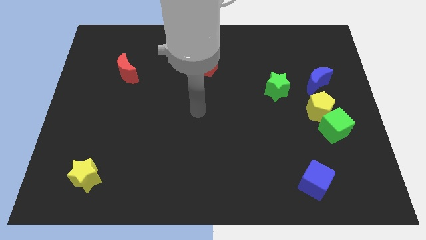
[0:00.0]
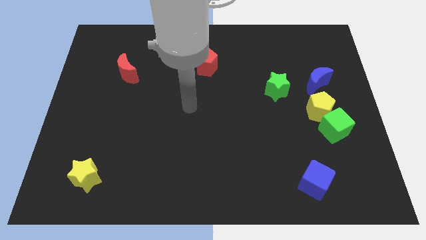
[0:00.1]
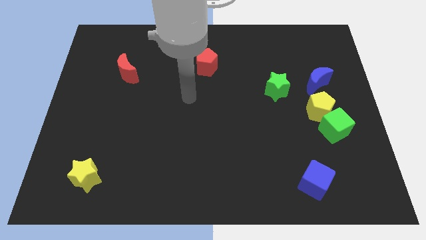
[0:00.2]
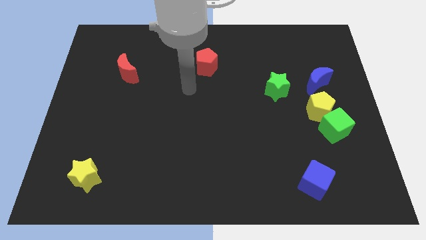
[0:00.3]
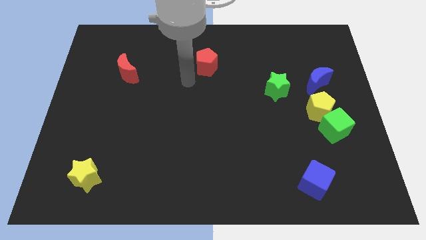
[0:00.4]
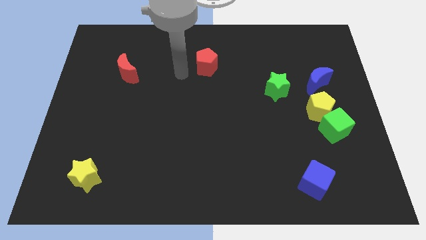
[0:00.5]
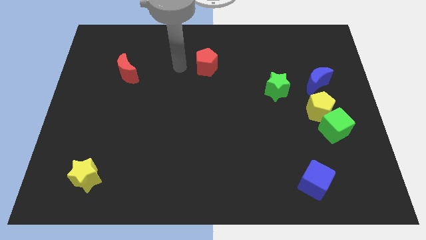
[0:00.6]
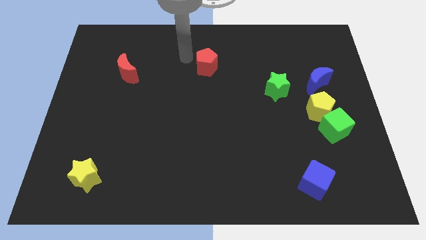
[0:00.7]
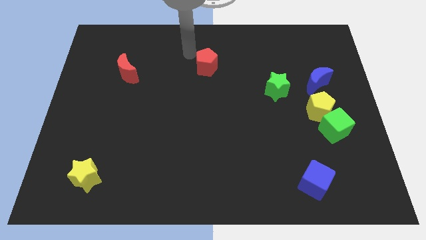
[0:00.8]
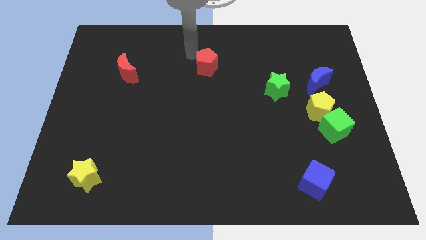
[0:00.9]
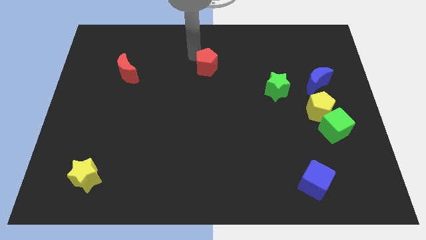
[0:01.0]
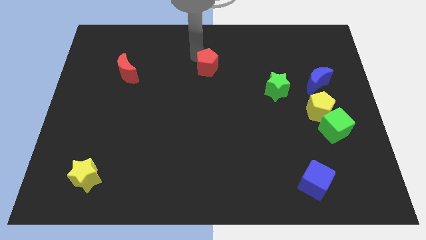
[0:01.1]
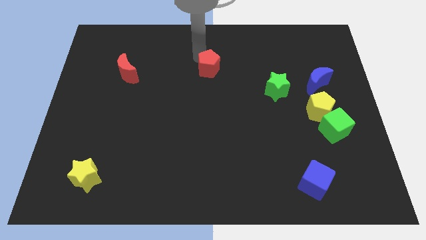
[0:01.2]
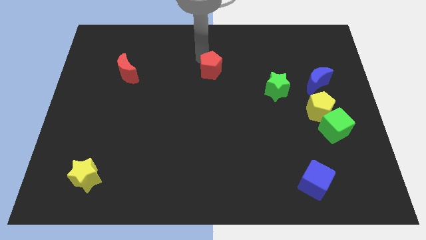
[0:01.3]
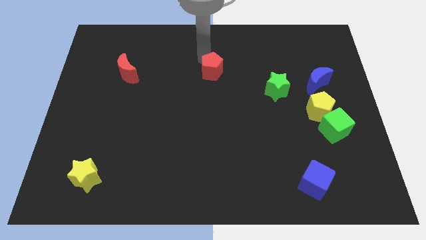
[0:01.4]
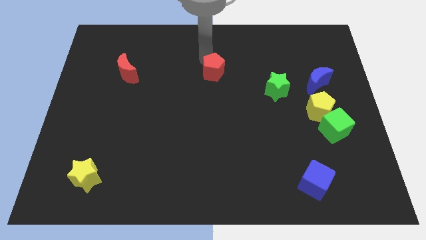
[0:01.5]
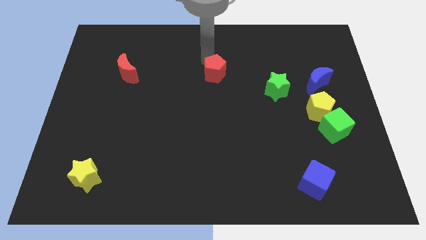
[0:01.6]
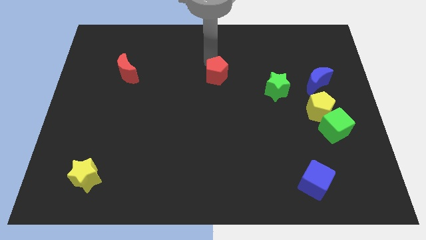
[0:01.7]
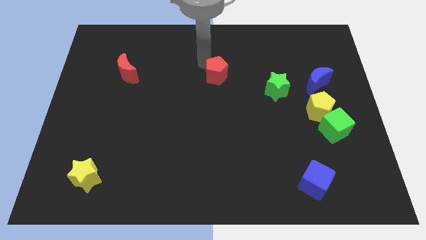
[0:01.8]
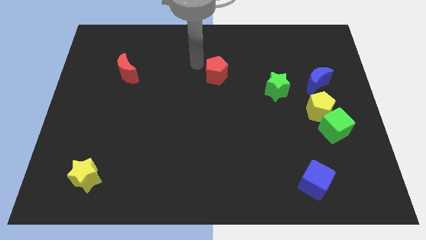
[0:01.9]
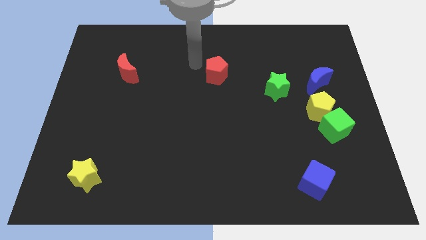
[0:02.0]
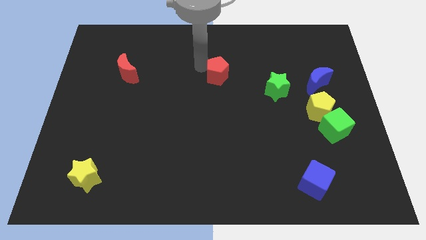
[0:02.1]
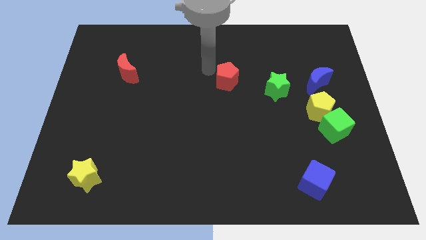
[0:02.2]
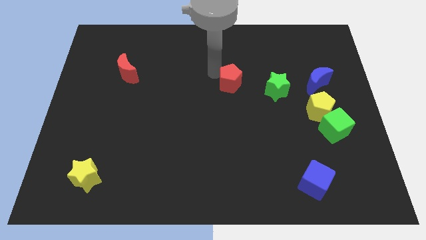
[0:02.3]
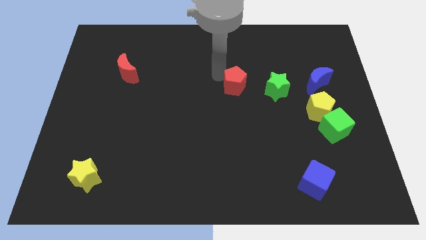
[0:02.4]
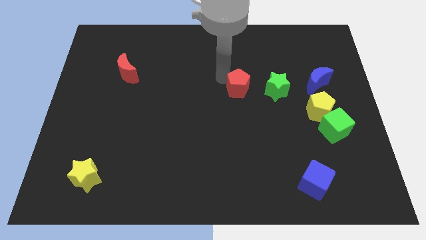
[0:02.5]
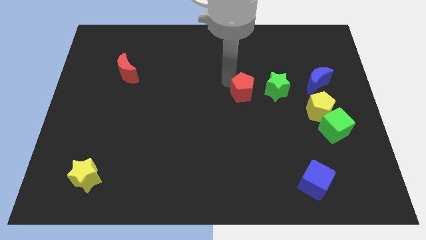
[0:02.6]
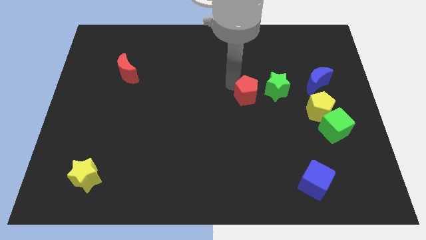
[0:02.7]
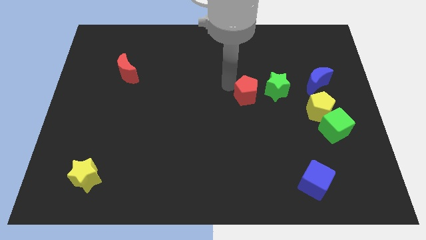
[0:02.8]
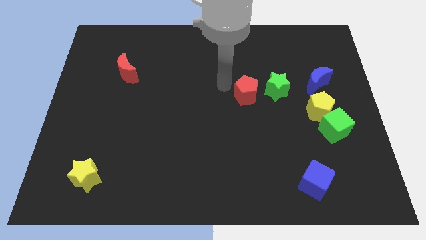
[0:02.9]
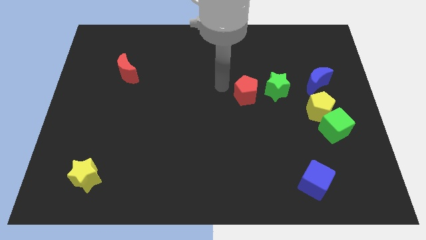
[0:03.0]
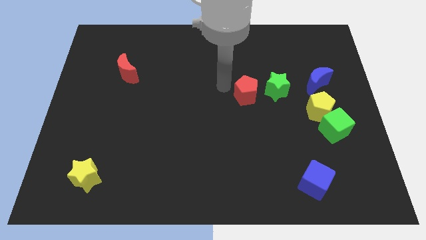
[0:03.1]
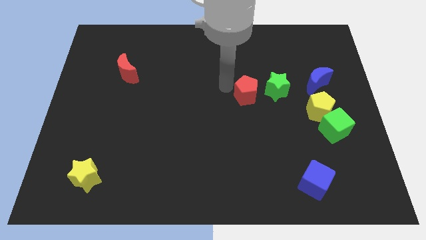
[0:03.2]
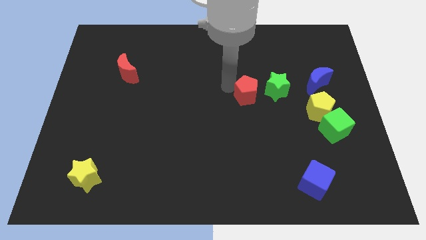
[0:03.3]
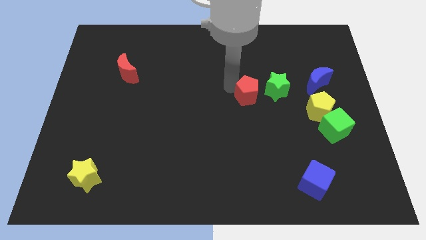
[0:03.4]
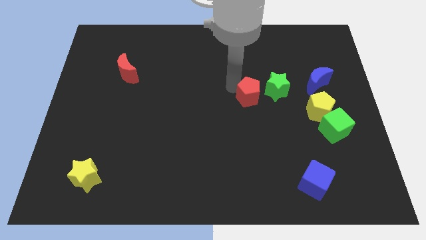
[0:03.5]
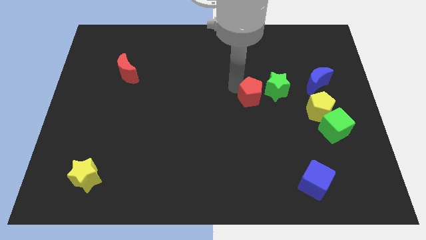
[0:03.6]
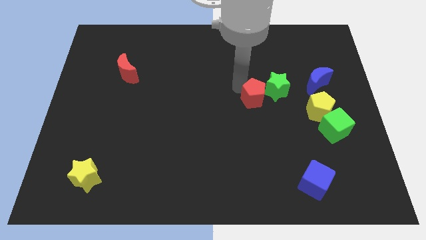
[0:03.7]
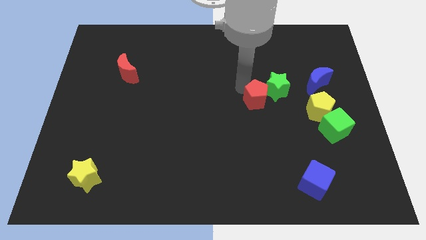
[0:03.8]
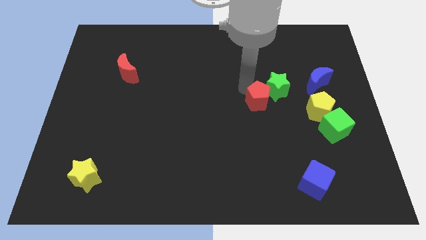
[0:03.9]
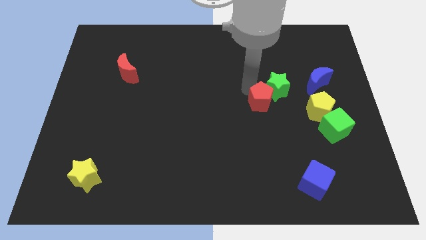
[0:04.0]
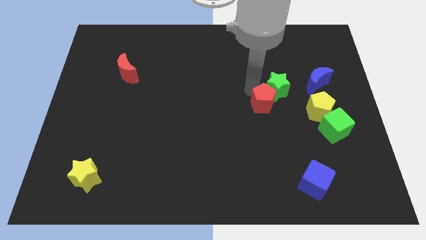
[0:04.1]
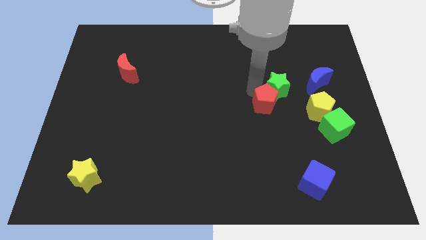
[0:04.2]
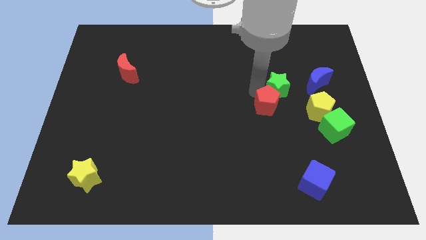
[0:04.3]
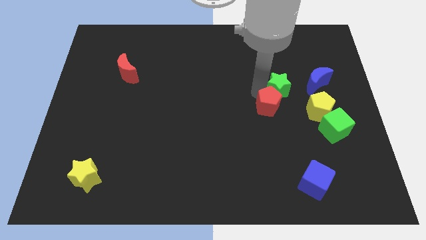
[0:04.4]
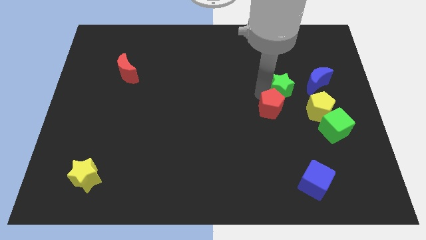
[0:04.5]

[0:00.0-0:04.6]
move the red pentagon down and then to the right

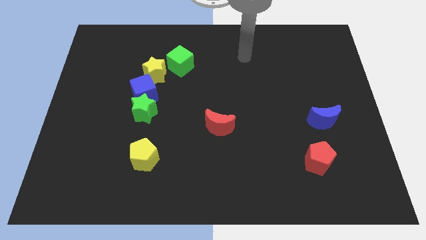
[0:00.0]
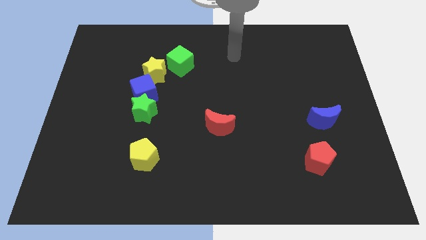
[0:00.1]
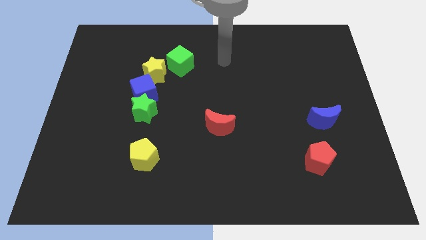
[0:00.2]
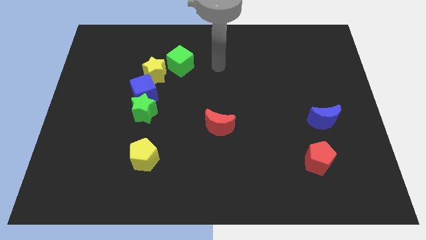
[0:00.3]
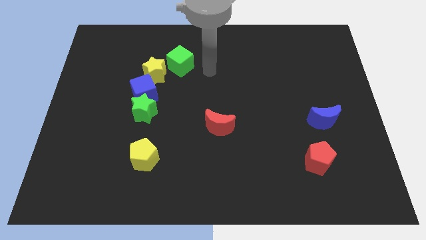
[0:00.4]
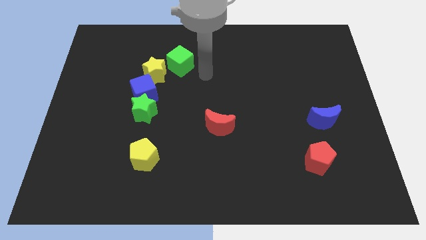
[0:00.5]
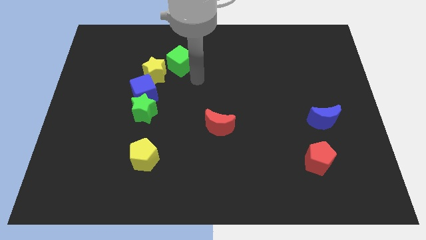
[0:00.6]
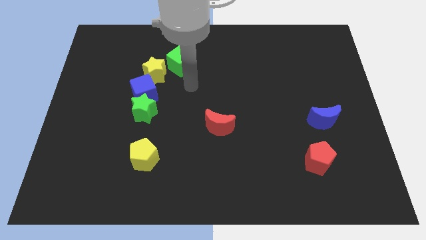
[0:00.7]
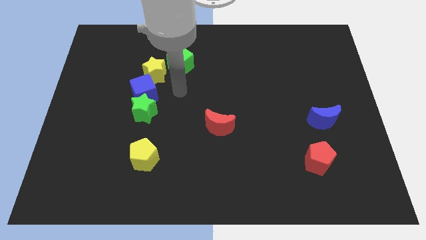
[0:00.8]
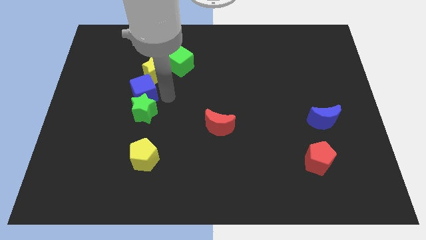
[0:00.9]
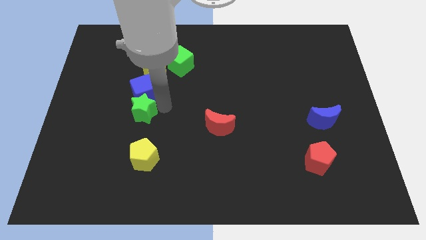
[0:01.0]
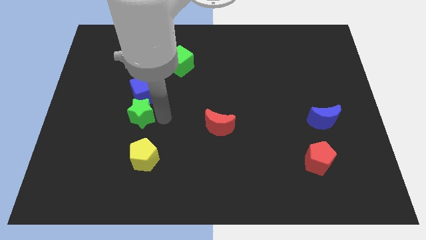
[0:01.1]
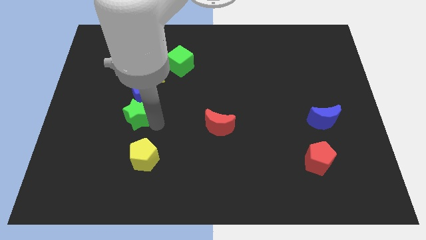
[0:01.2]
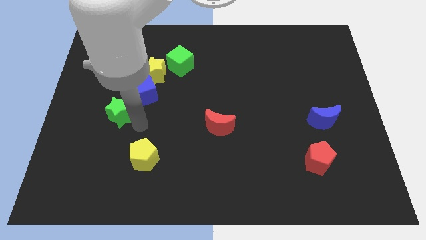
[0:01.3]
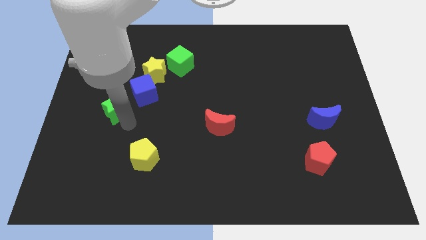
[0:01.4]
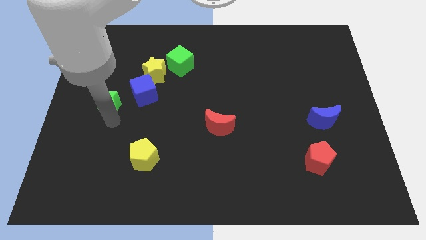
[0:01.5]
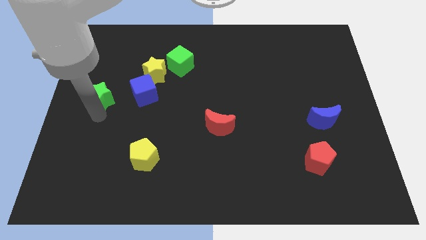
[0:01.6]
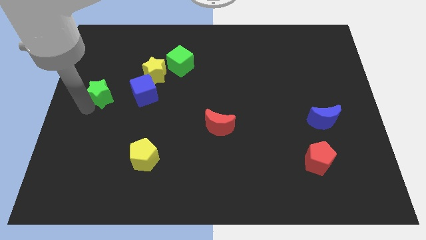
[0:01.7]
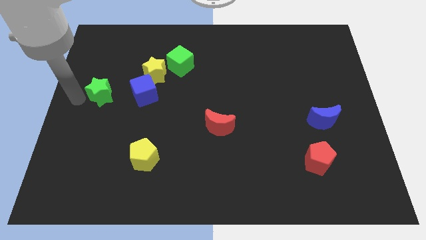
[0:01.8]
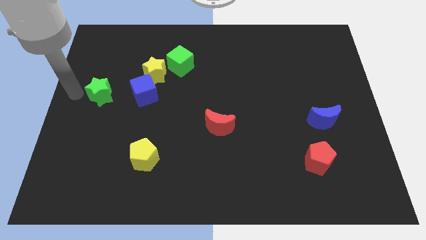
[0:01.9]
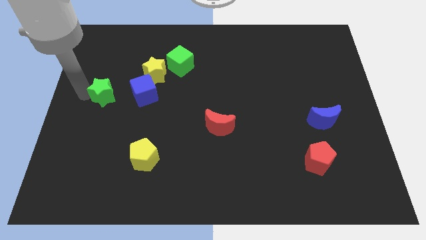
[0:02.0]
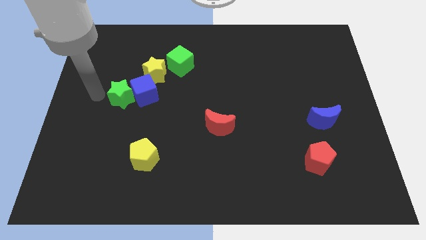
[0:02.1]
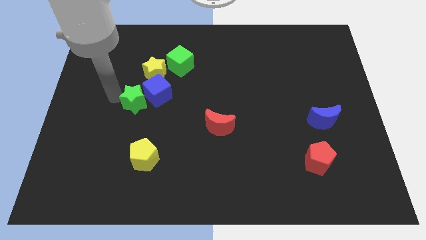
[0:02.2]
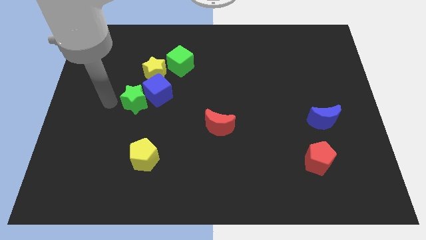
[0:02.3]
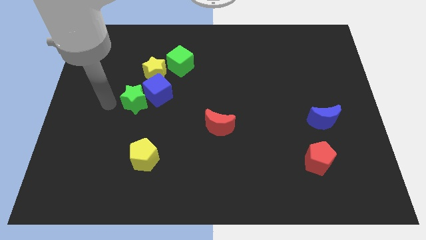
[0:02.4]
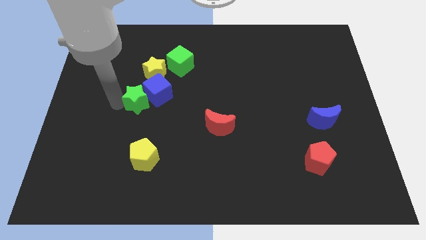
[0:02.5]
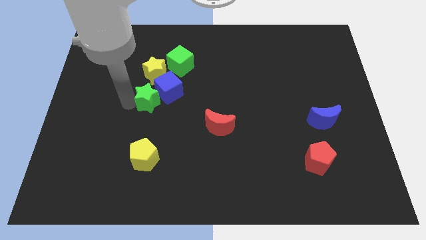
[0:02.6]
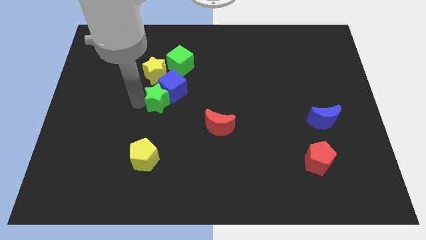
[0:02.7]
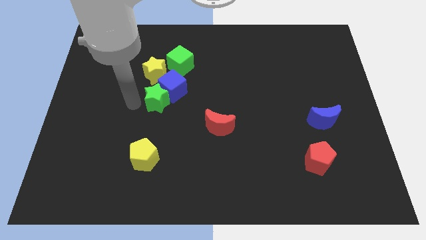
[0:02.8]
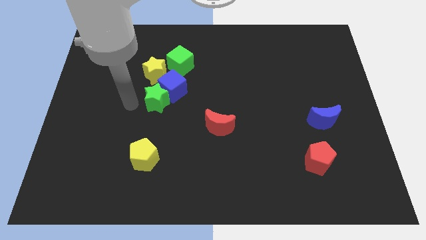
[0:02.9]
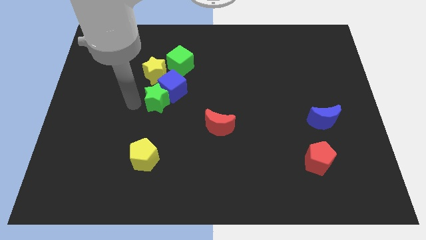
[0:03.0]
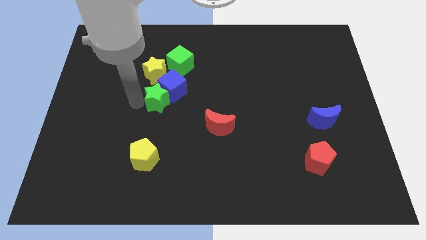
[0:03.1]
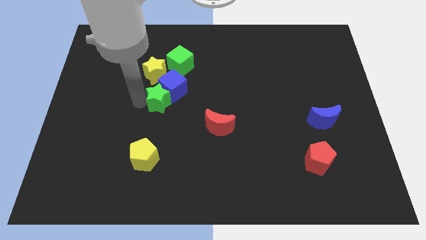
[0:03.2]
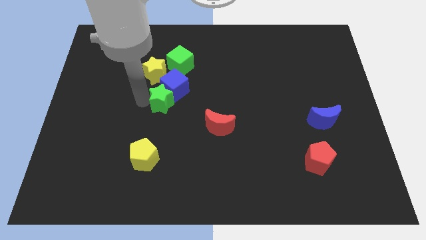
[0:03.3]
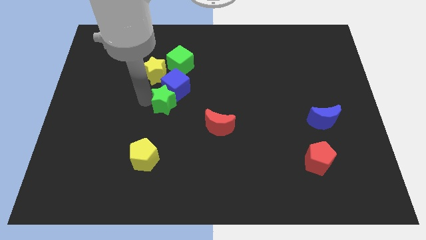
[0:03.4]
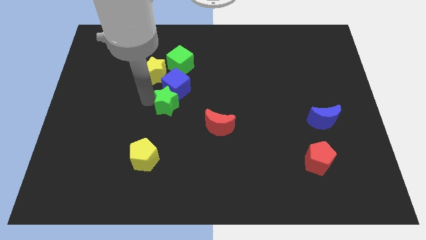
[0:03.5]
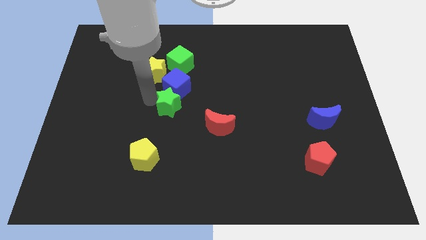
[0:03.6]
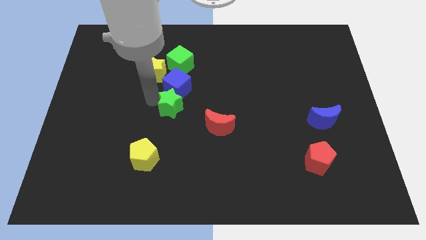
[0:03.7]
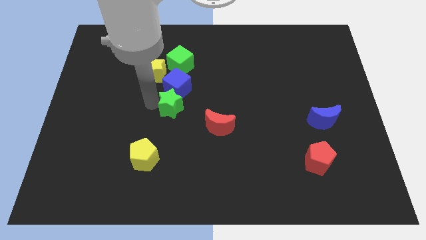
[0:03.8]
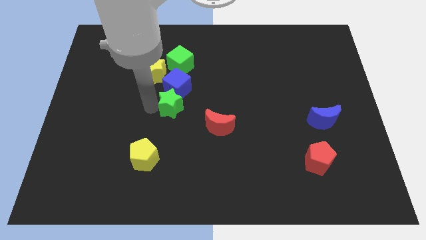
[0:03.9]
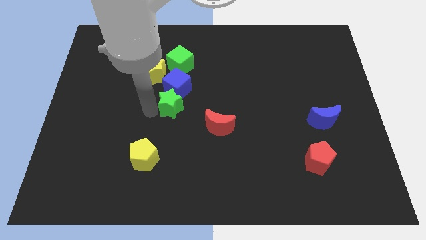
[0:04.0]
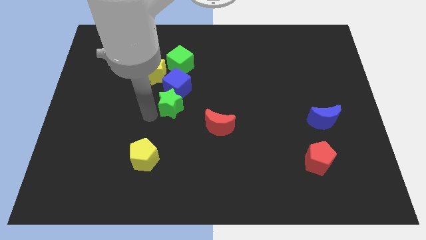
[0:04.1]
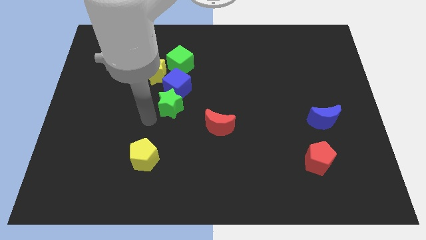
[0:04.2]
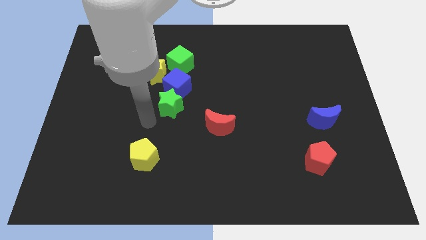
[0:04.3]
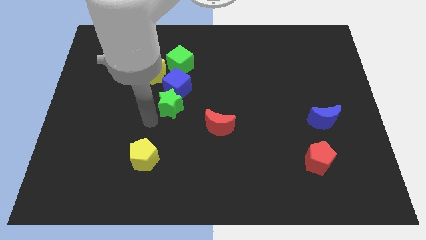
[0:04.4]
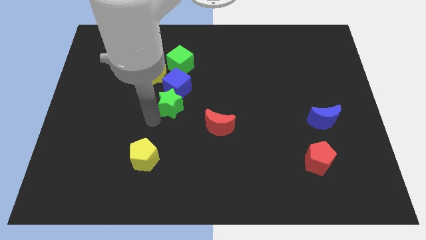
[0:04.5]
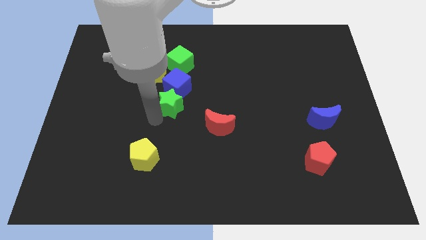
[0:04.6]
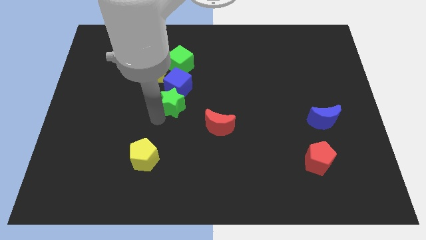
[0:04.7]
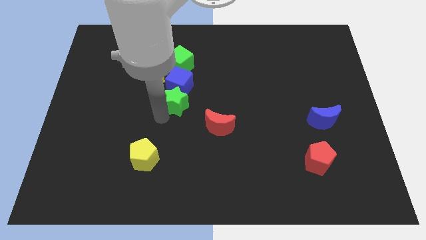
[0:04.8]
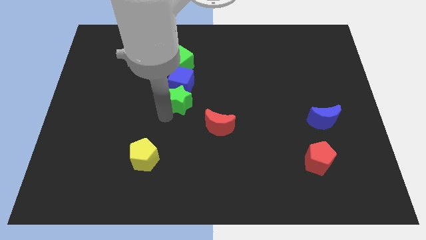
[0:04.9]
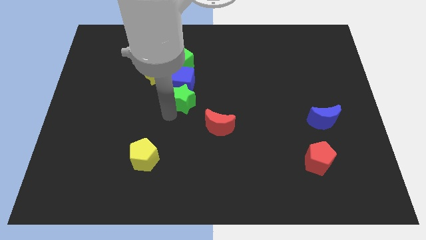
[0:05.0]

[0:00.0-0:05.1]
slightly push the green star up and right diagonally
